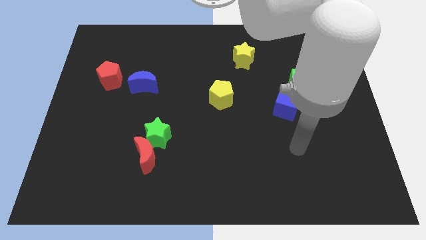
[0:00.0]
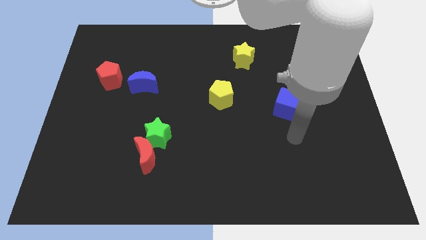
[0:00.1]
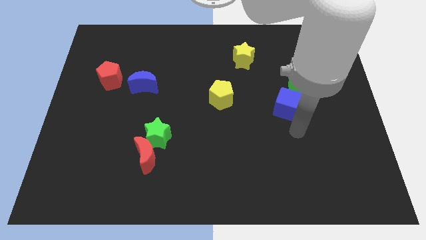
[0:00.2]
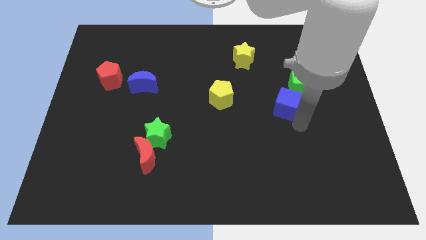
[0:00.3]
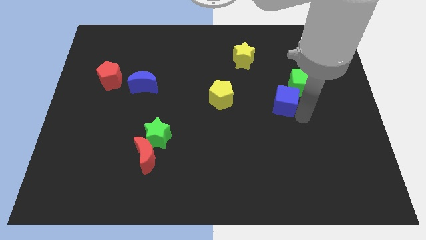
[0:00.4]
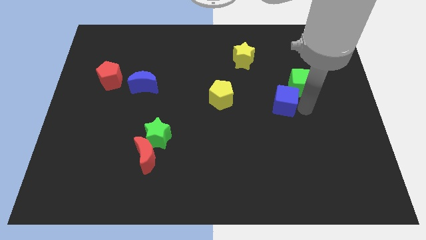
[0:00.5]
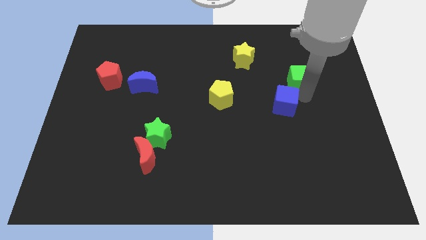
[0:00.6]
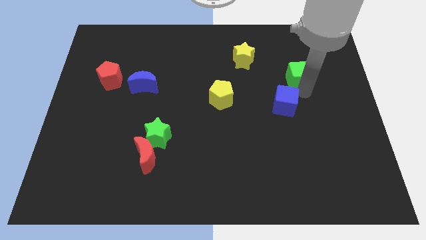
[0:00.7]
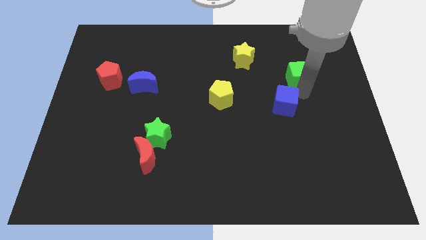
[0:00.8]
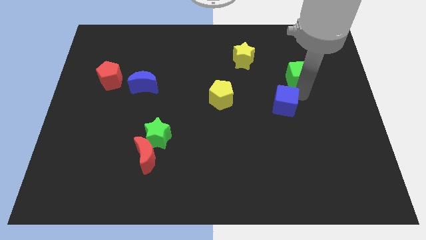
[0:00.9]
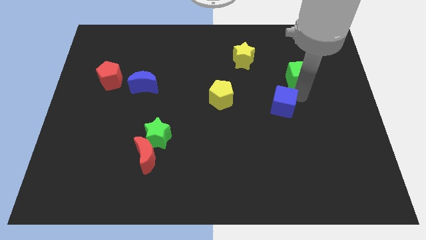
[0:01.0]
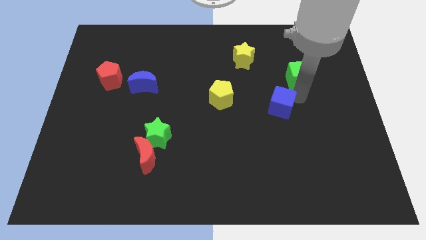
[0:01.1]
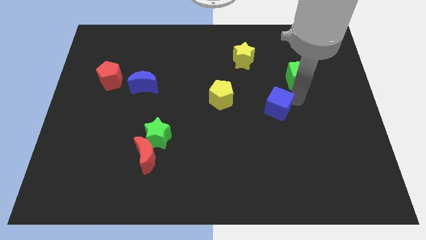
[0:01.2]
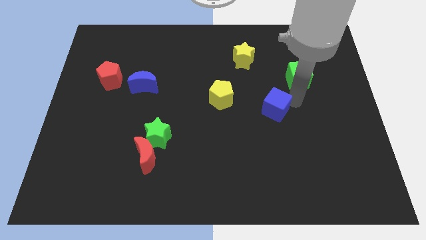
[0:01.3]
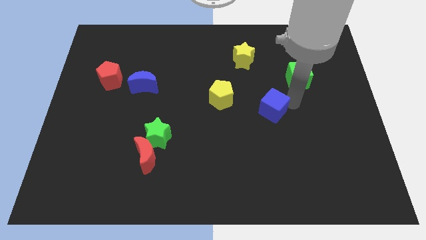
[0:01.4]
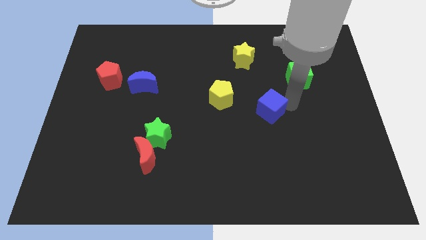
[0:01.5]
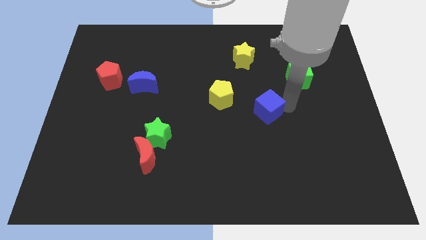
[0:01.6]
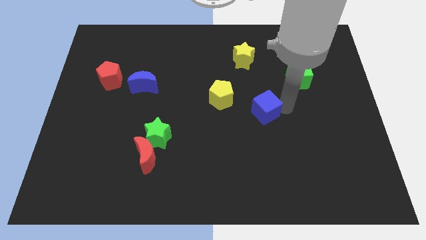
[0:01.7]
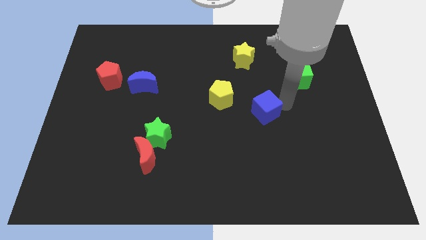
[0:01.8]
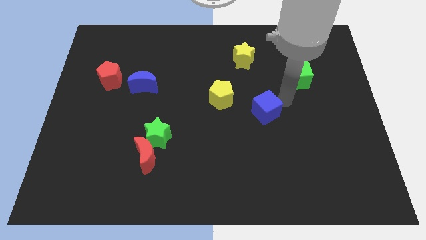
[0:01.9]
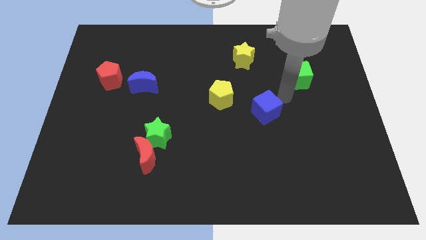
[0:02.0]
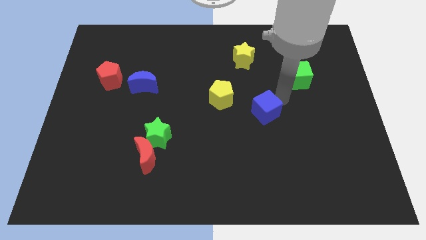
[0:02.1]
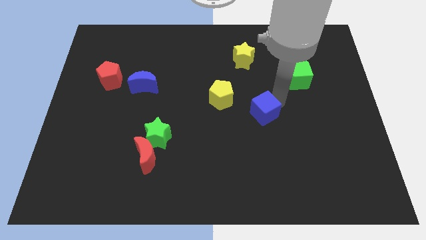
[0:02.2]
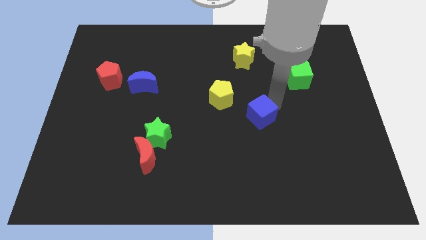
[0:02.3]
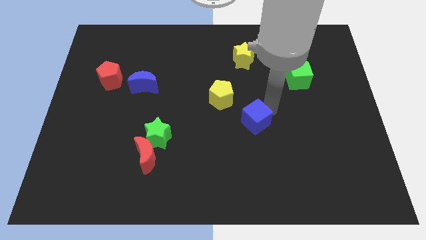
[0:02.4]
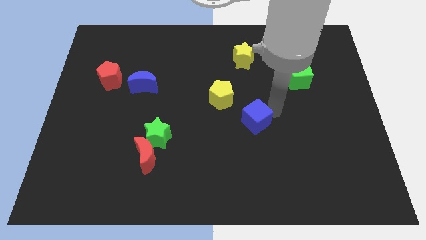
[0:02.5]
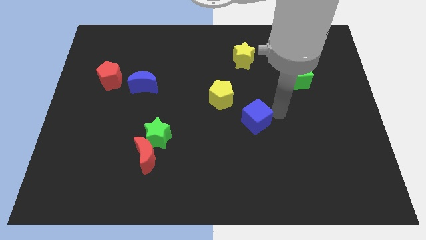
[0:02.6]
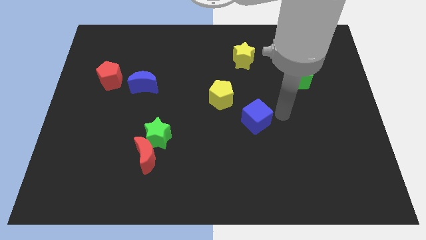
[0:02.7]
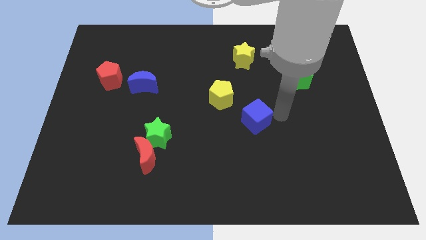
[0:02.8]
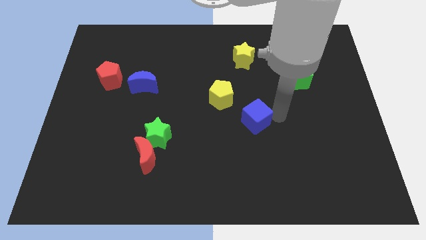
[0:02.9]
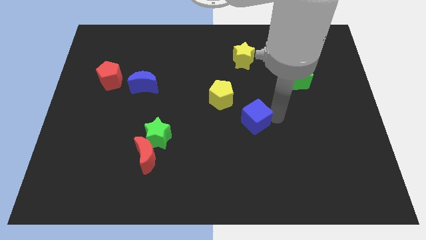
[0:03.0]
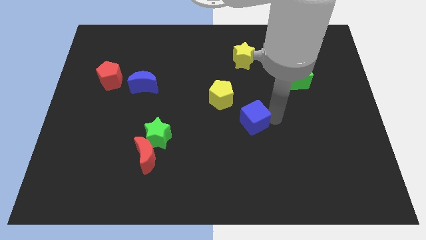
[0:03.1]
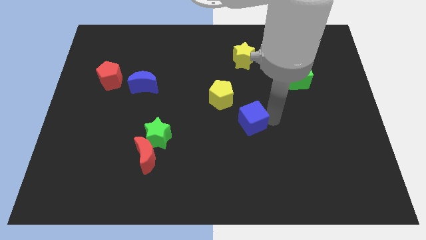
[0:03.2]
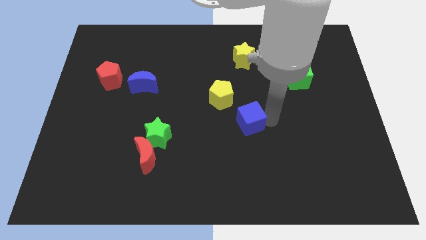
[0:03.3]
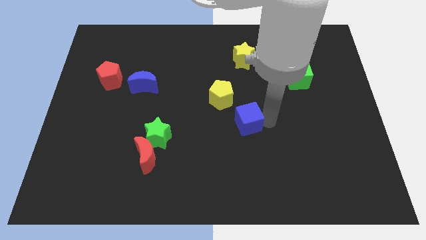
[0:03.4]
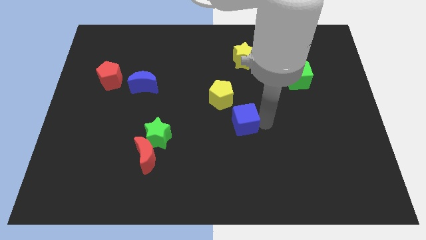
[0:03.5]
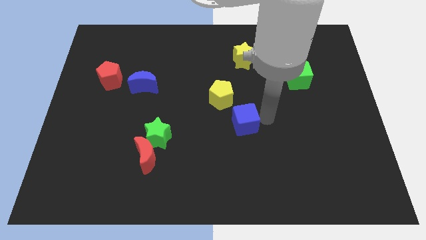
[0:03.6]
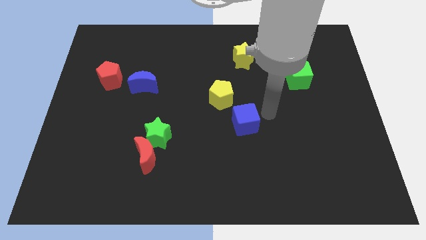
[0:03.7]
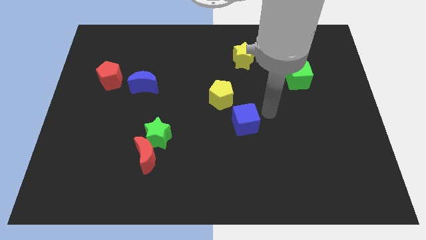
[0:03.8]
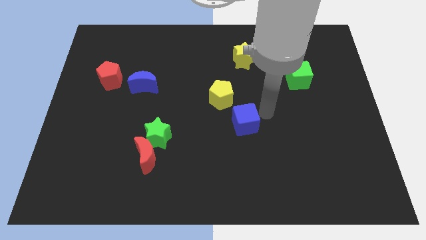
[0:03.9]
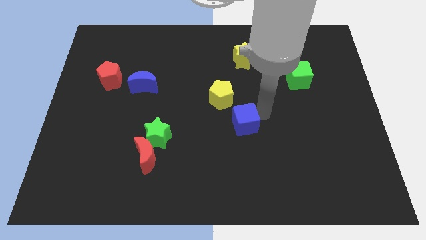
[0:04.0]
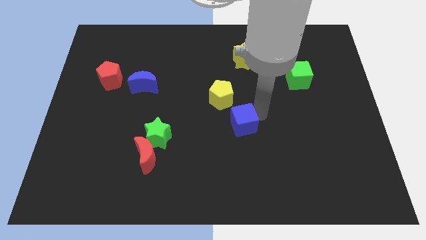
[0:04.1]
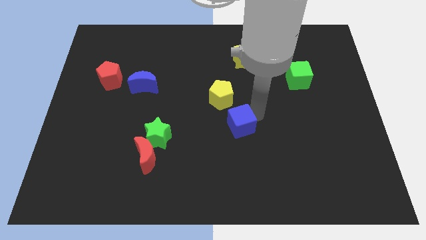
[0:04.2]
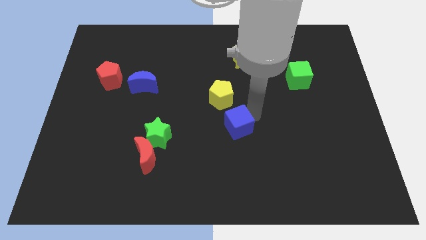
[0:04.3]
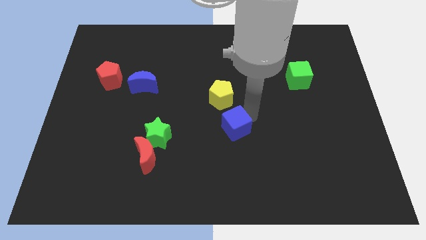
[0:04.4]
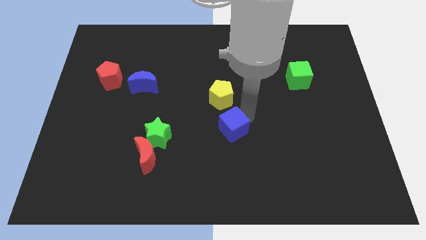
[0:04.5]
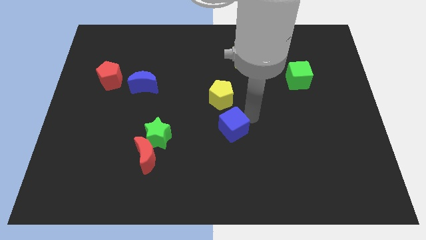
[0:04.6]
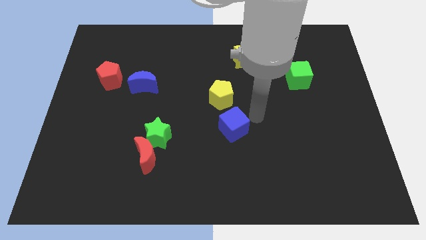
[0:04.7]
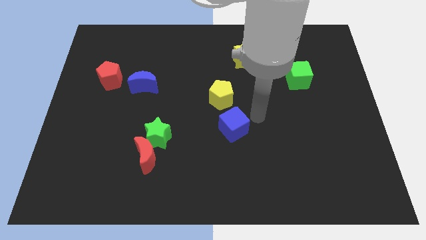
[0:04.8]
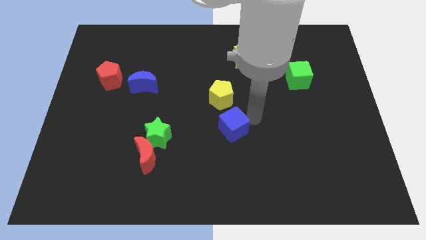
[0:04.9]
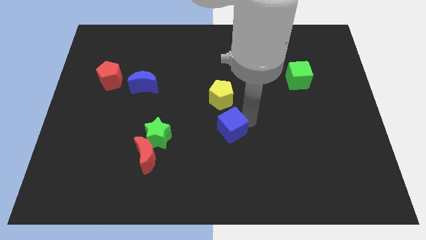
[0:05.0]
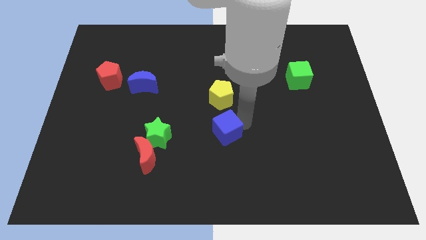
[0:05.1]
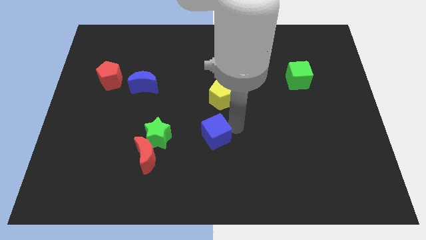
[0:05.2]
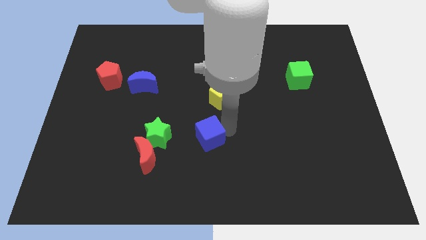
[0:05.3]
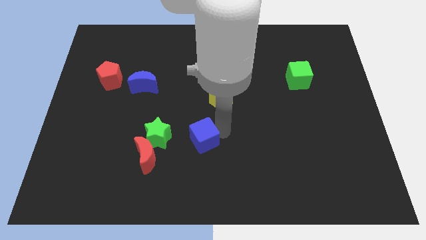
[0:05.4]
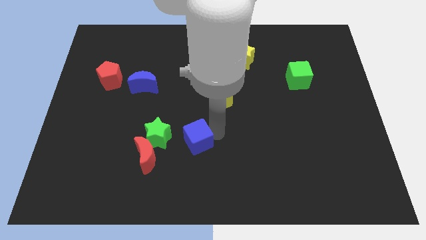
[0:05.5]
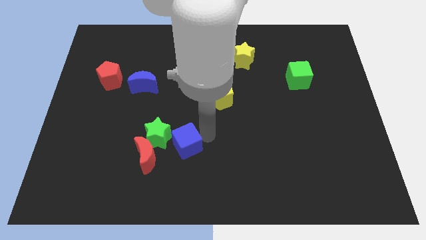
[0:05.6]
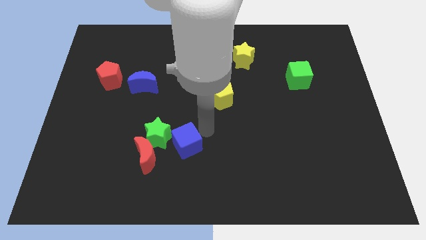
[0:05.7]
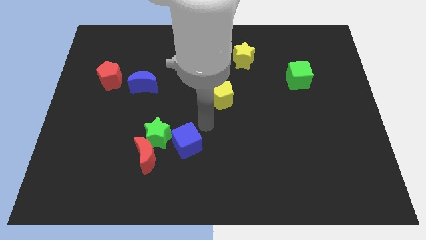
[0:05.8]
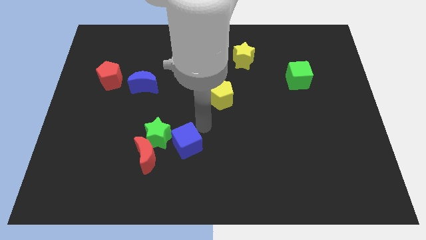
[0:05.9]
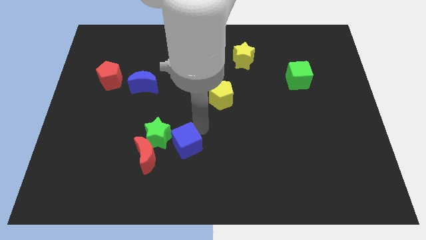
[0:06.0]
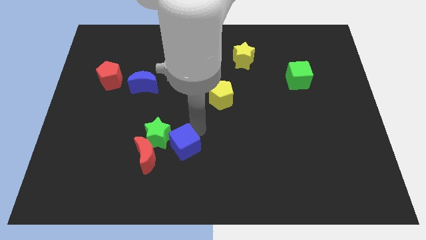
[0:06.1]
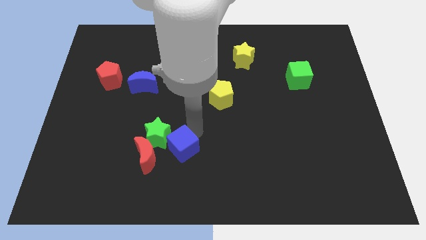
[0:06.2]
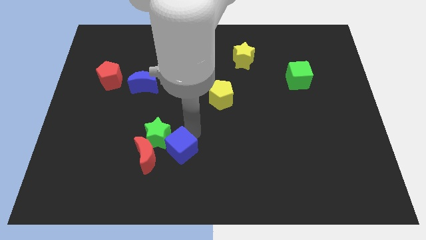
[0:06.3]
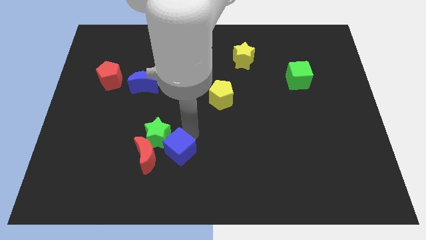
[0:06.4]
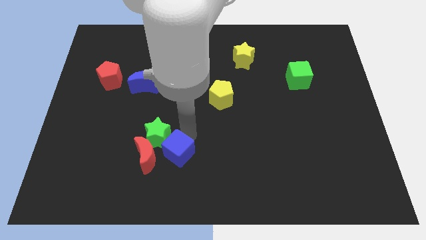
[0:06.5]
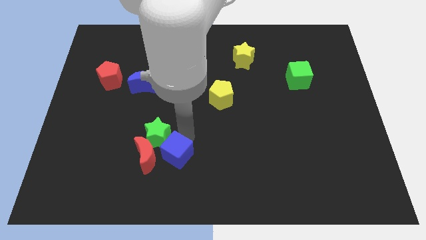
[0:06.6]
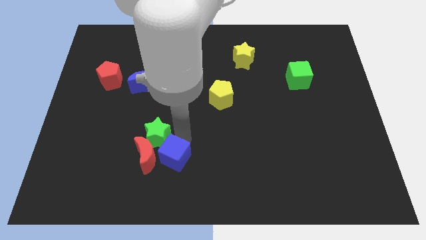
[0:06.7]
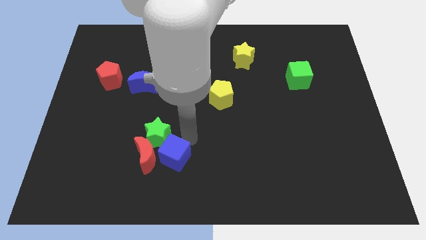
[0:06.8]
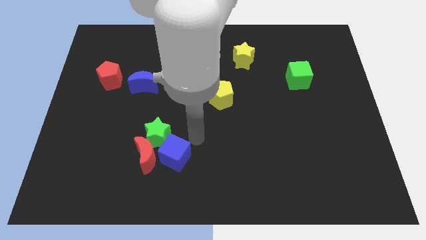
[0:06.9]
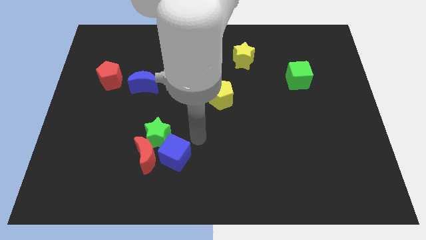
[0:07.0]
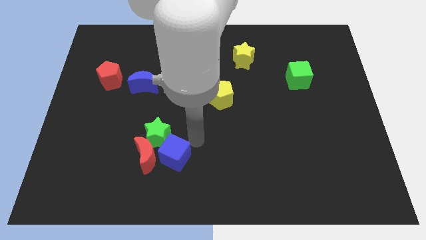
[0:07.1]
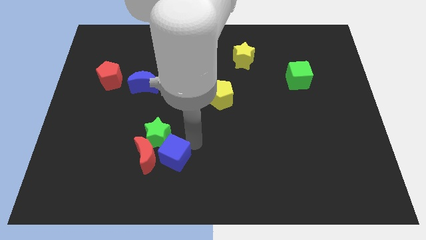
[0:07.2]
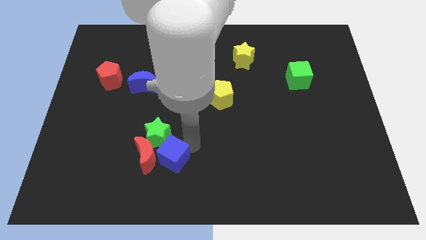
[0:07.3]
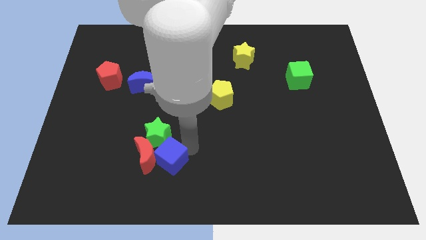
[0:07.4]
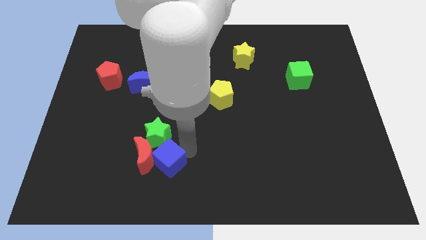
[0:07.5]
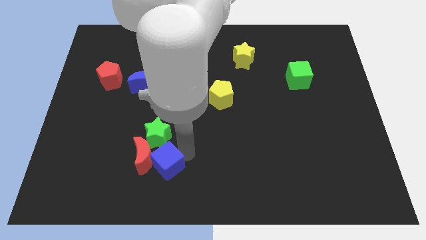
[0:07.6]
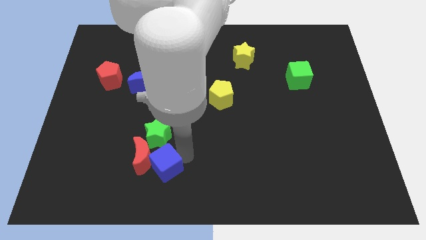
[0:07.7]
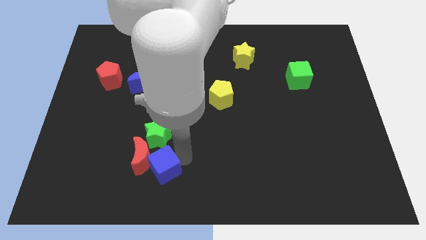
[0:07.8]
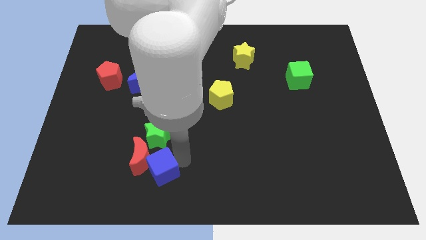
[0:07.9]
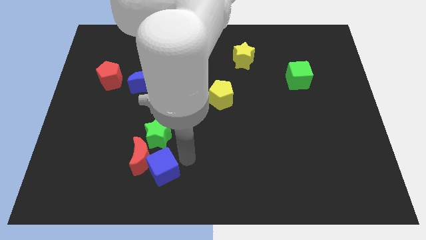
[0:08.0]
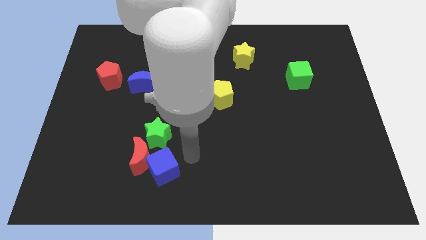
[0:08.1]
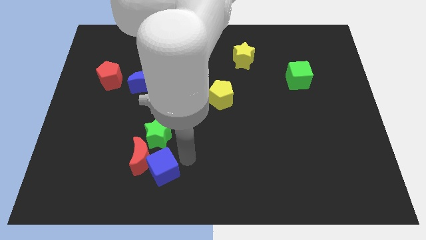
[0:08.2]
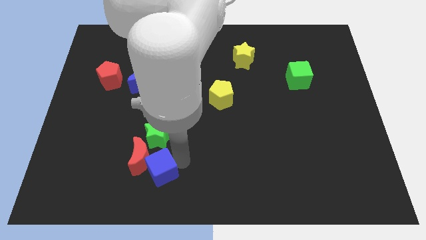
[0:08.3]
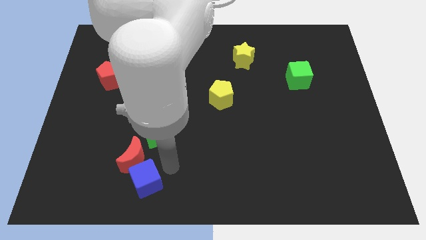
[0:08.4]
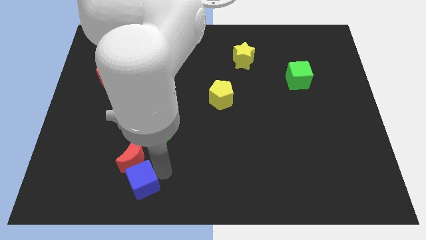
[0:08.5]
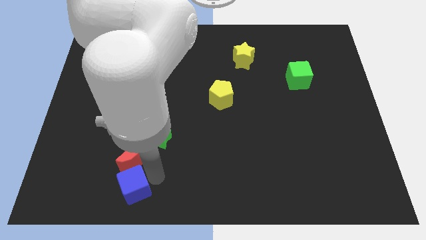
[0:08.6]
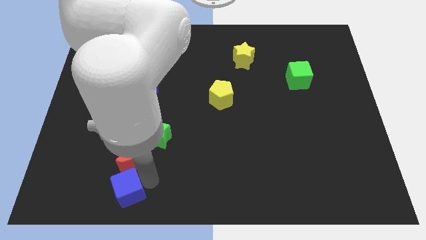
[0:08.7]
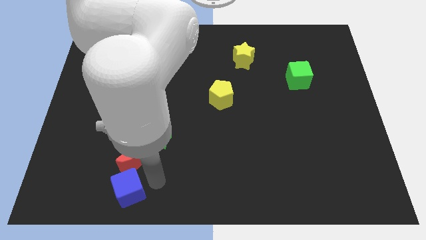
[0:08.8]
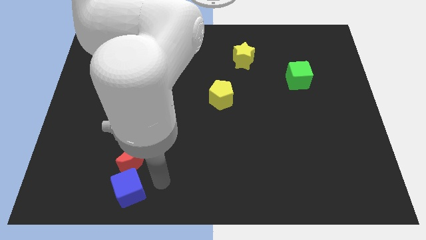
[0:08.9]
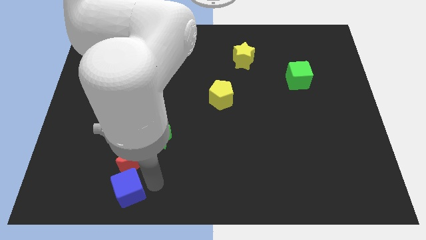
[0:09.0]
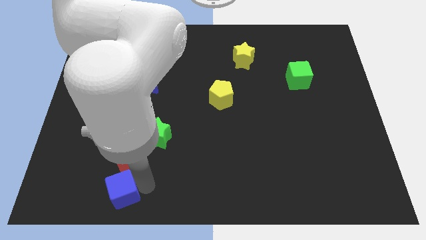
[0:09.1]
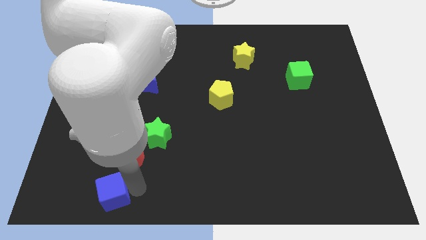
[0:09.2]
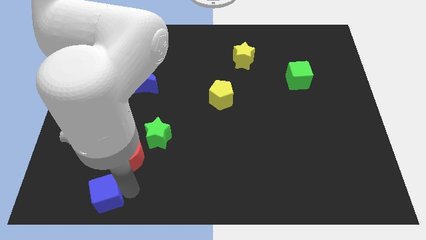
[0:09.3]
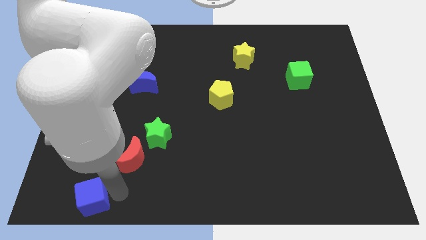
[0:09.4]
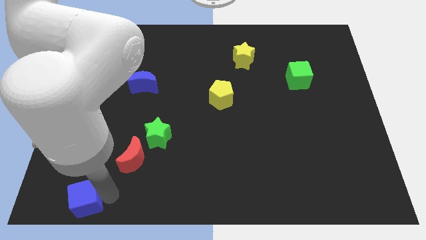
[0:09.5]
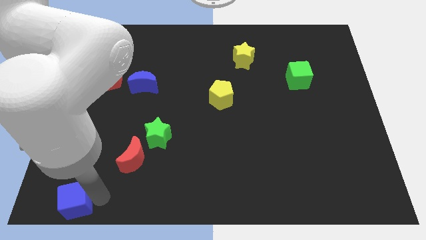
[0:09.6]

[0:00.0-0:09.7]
move the blue cube to the bottom left
